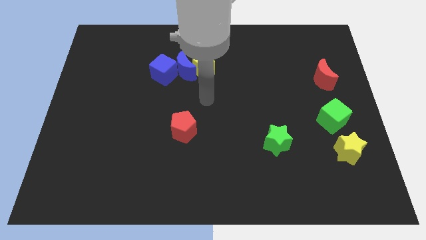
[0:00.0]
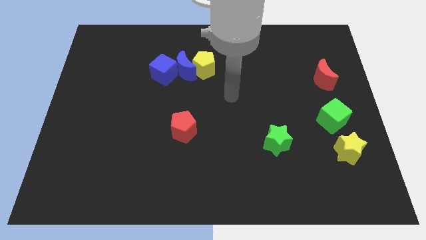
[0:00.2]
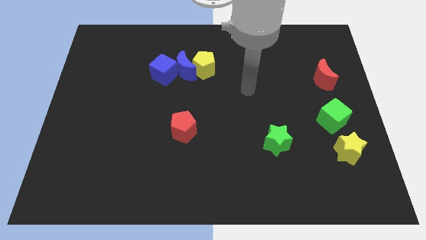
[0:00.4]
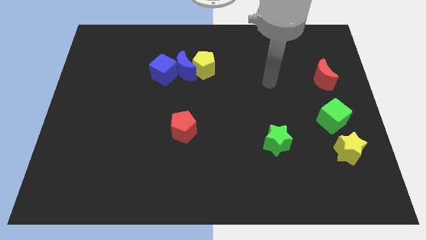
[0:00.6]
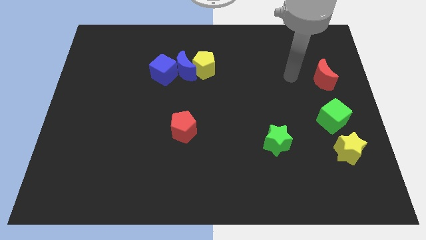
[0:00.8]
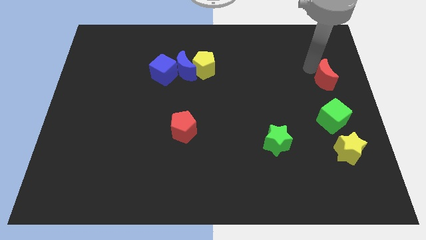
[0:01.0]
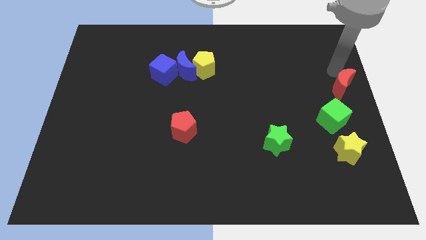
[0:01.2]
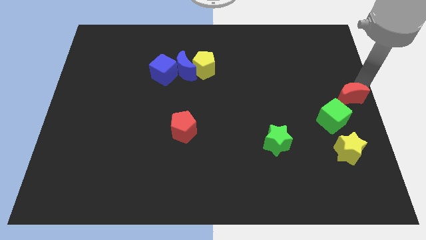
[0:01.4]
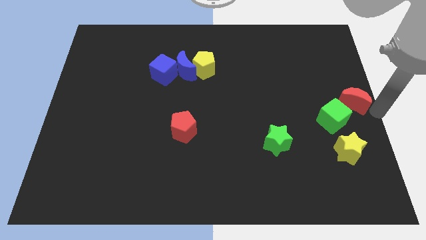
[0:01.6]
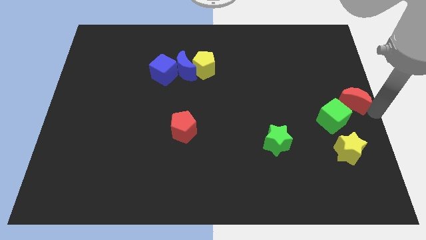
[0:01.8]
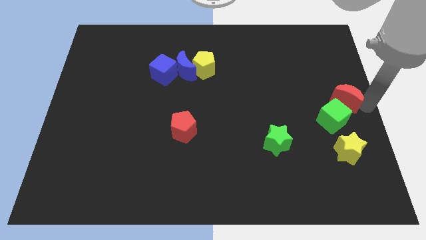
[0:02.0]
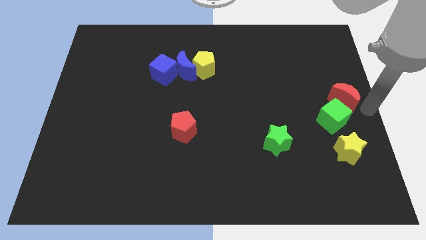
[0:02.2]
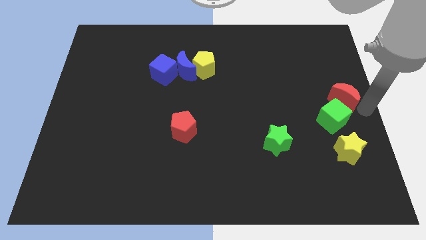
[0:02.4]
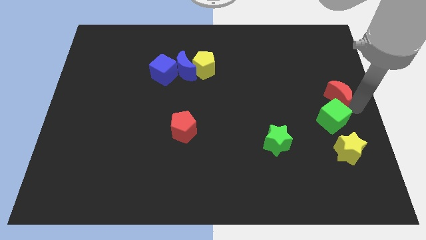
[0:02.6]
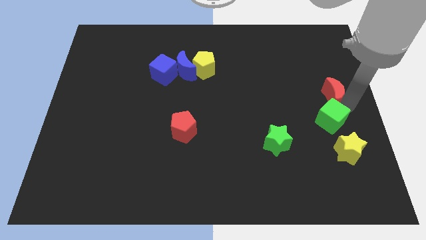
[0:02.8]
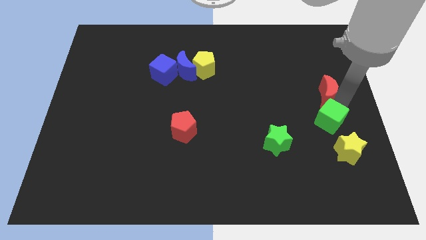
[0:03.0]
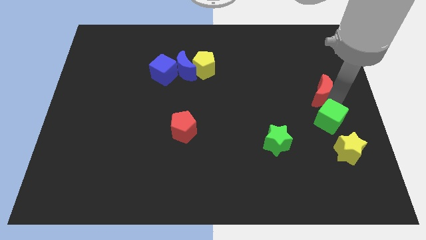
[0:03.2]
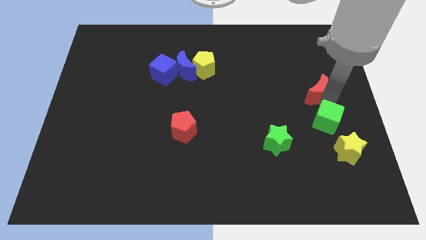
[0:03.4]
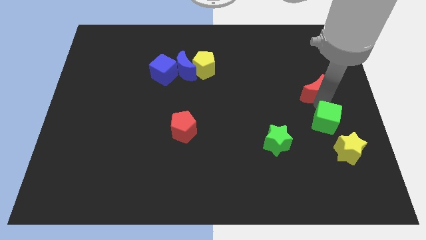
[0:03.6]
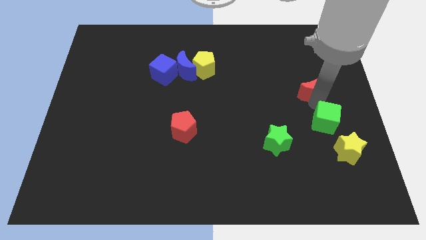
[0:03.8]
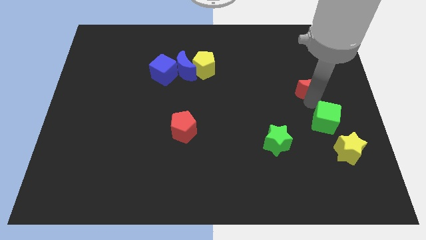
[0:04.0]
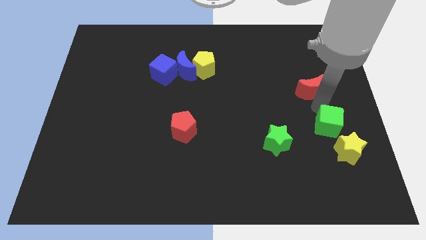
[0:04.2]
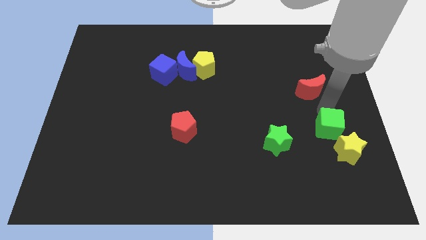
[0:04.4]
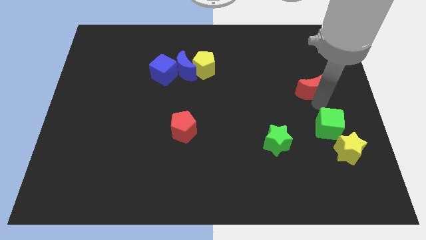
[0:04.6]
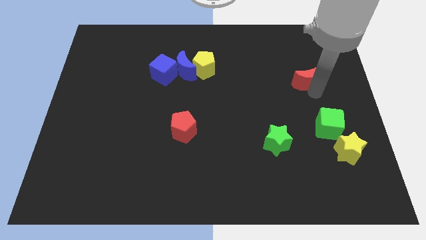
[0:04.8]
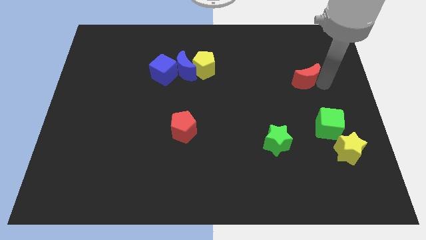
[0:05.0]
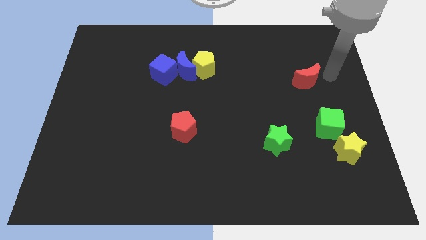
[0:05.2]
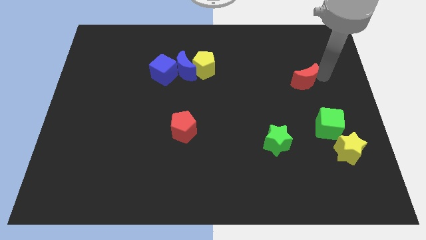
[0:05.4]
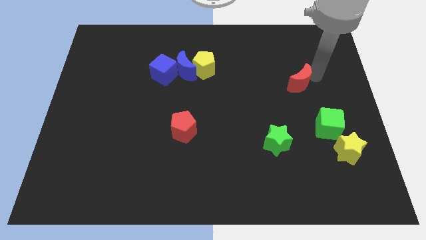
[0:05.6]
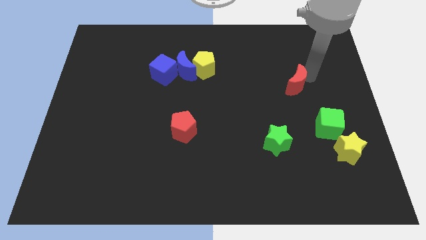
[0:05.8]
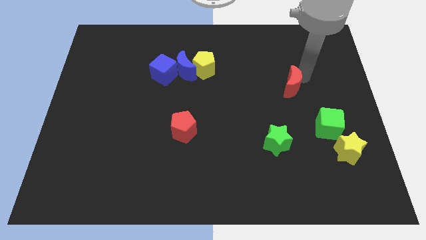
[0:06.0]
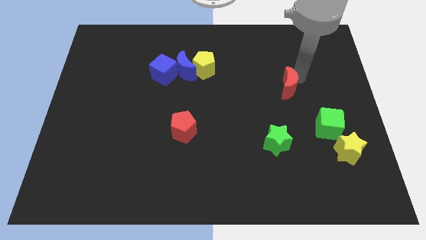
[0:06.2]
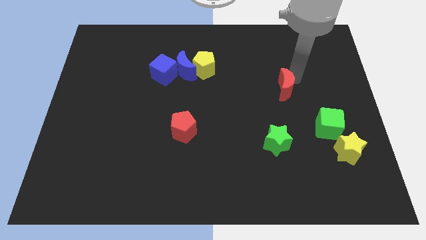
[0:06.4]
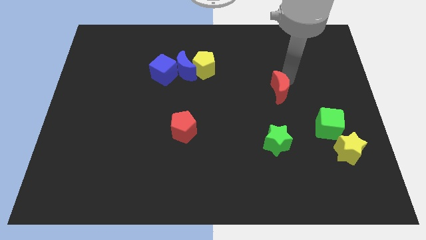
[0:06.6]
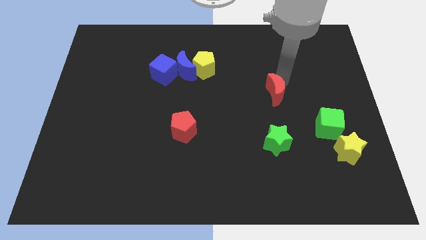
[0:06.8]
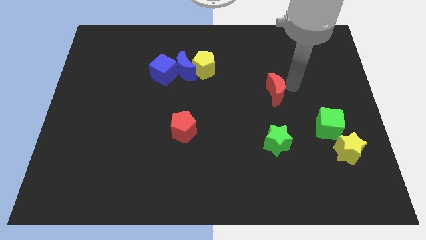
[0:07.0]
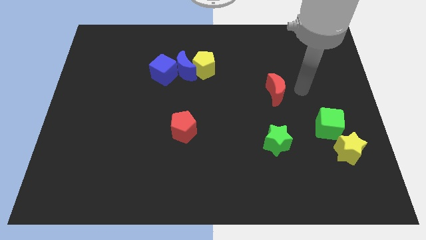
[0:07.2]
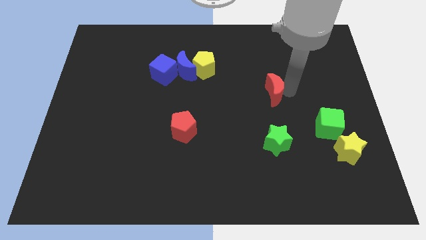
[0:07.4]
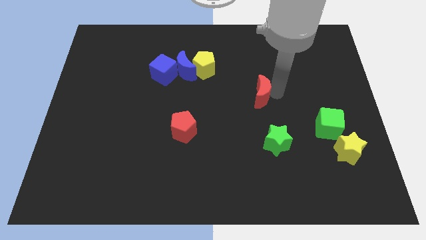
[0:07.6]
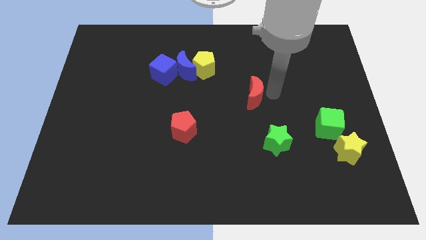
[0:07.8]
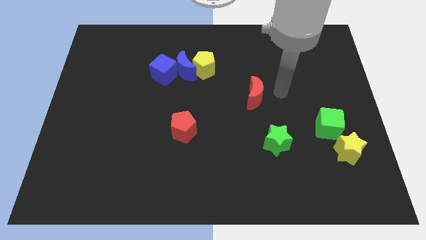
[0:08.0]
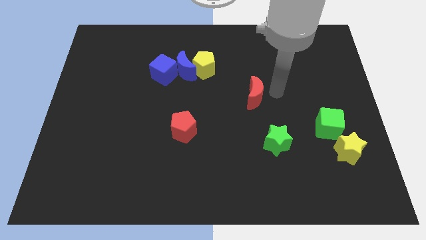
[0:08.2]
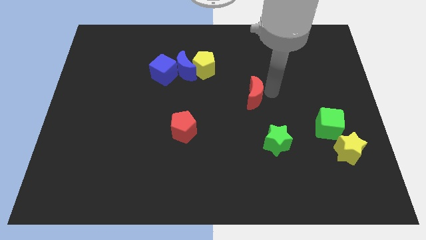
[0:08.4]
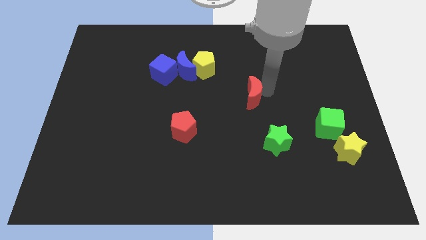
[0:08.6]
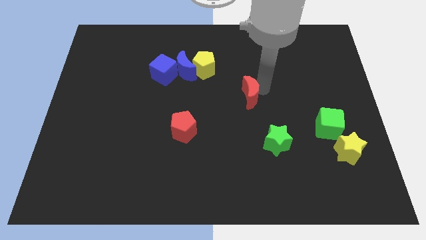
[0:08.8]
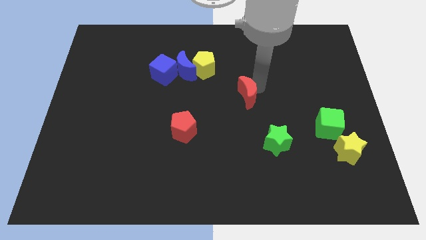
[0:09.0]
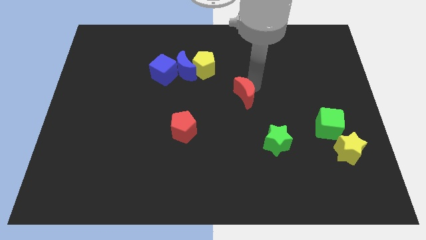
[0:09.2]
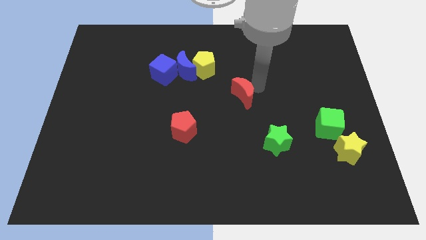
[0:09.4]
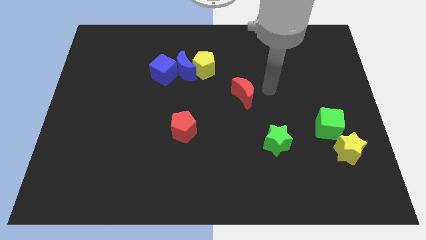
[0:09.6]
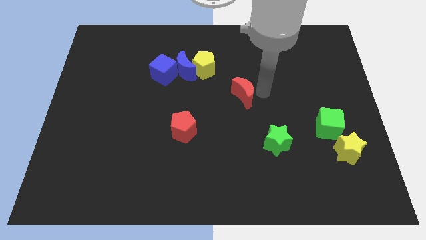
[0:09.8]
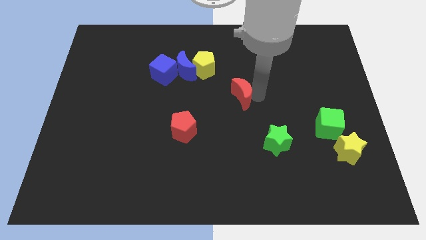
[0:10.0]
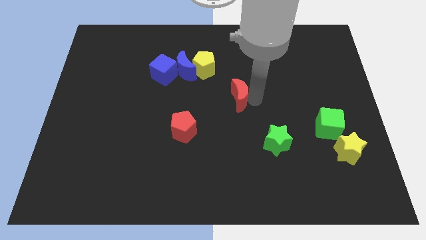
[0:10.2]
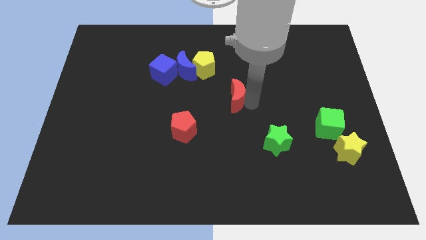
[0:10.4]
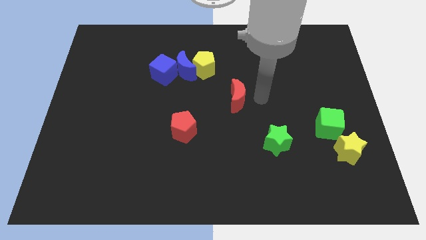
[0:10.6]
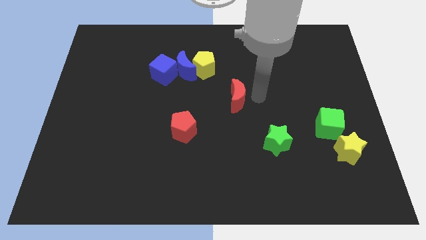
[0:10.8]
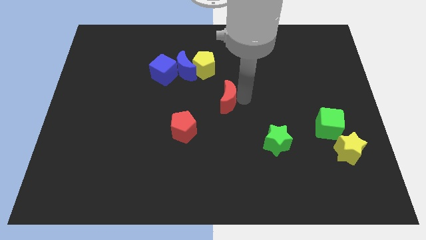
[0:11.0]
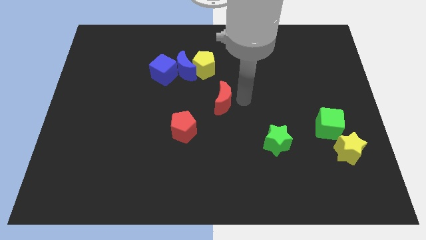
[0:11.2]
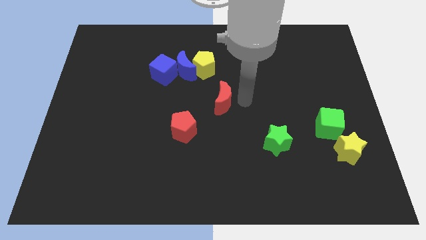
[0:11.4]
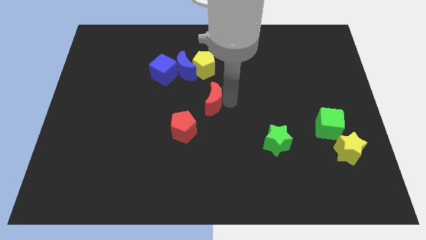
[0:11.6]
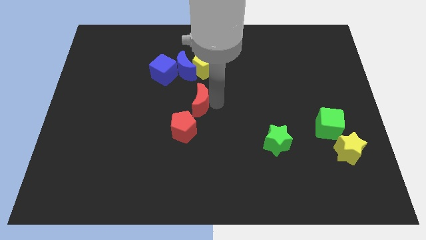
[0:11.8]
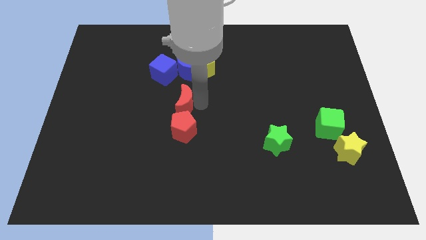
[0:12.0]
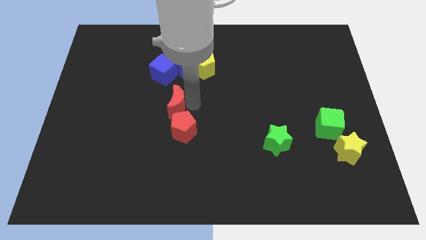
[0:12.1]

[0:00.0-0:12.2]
put the red moon to the bottom side of the blue cube

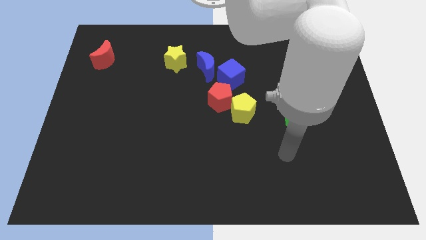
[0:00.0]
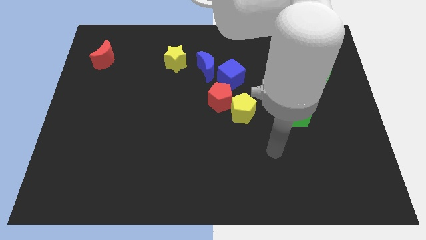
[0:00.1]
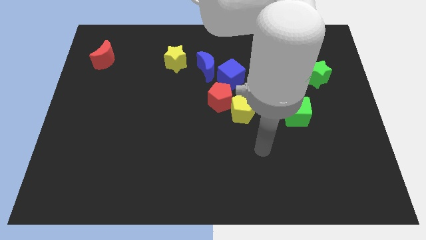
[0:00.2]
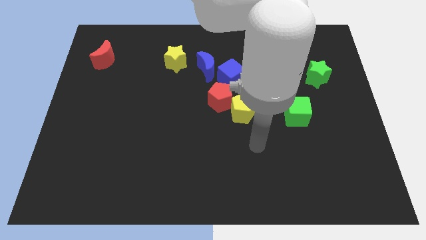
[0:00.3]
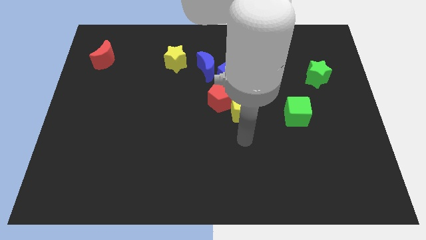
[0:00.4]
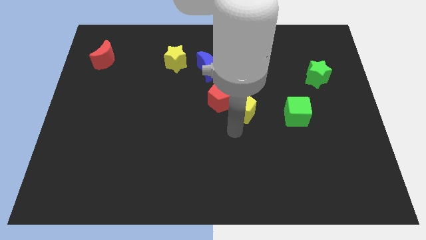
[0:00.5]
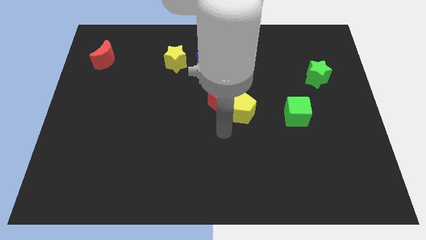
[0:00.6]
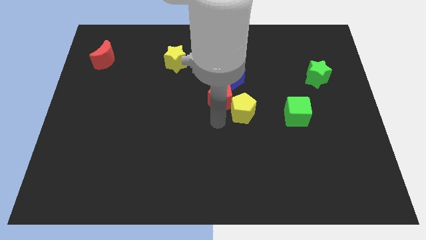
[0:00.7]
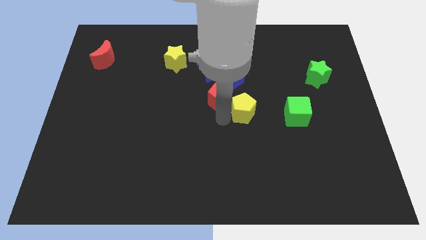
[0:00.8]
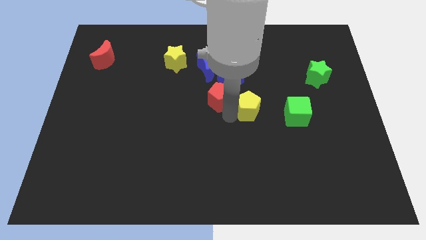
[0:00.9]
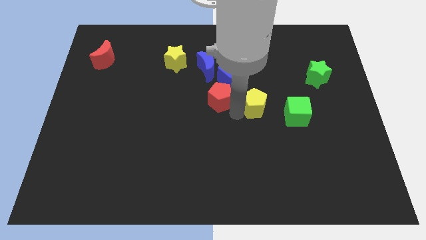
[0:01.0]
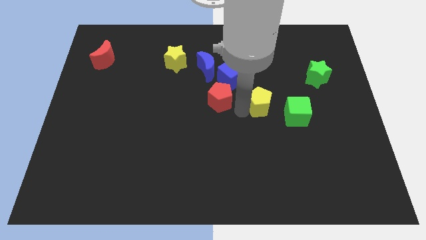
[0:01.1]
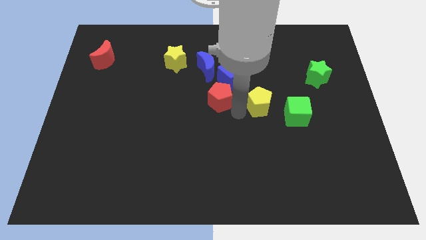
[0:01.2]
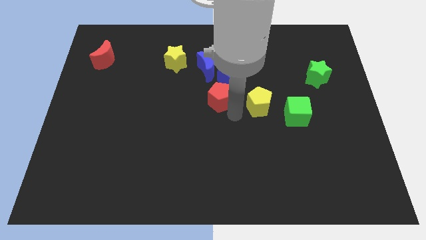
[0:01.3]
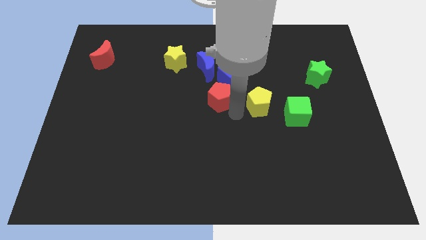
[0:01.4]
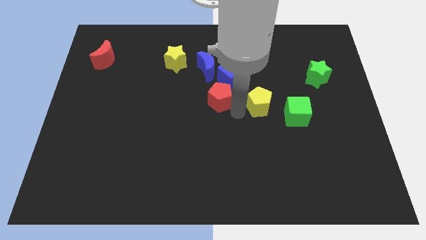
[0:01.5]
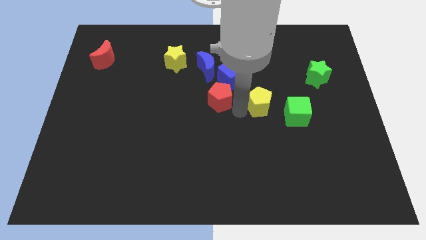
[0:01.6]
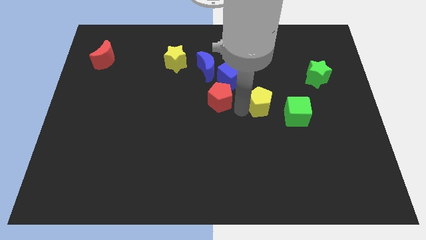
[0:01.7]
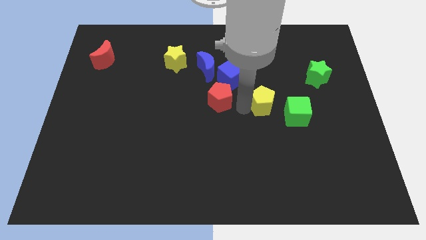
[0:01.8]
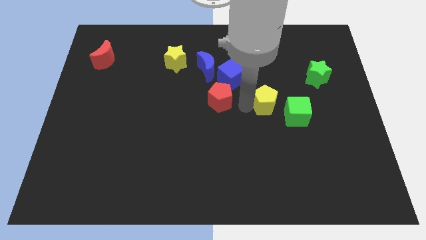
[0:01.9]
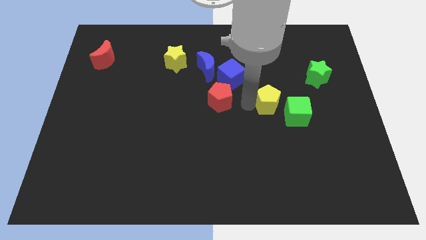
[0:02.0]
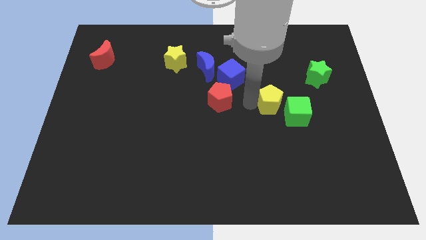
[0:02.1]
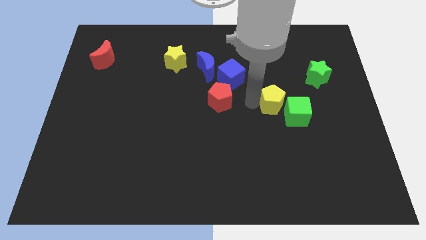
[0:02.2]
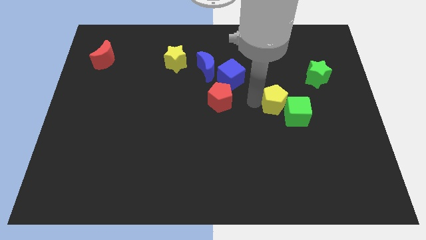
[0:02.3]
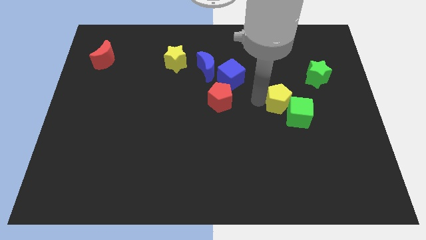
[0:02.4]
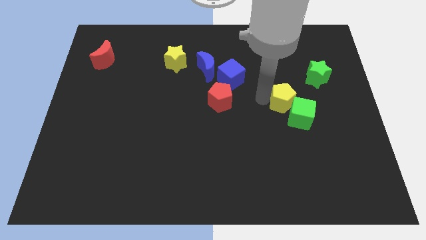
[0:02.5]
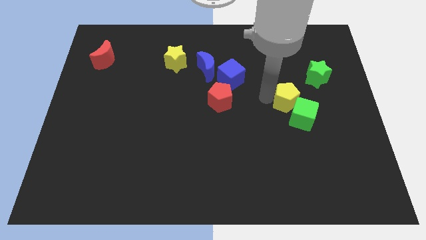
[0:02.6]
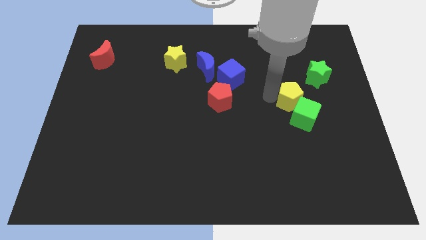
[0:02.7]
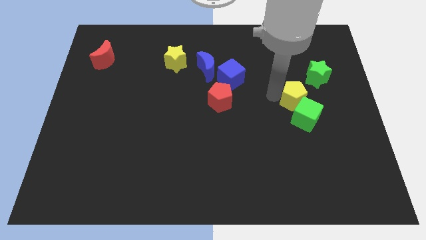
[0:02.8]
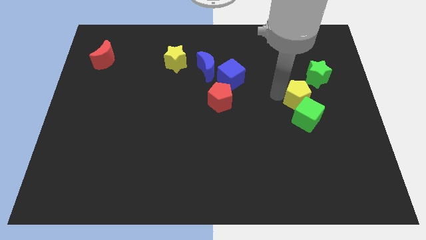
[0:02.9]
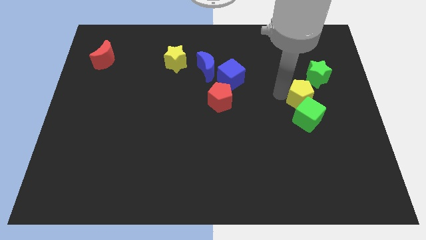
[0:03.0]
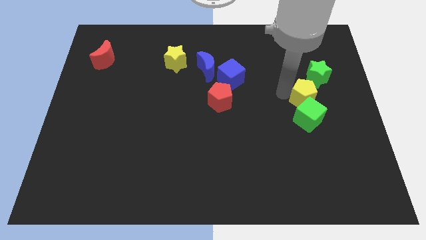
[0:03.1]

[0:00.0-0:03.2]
move the yellow pentagon to the bottom side of the green star
